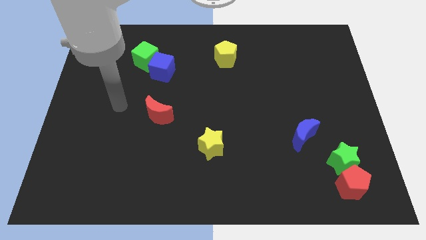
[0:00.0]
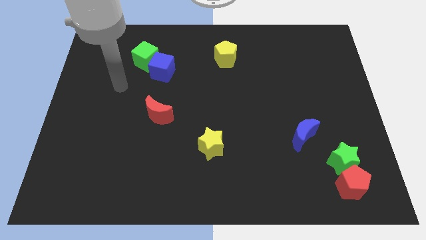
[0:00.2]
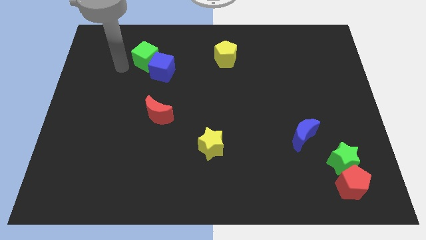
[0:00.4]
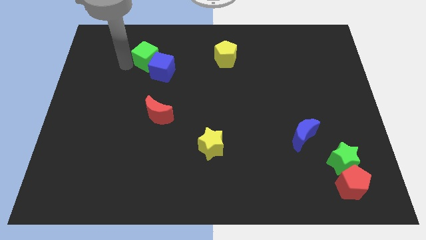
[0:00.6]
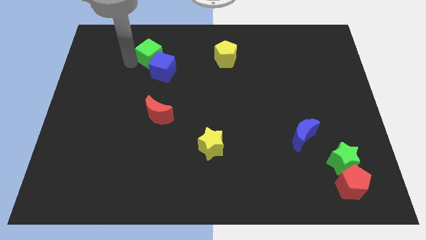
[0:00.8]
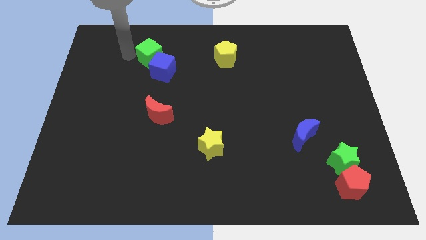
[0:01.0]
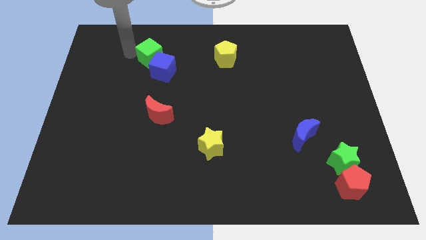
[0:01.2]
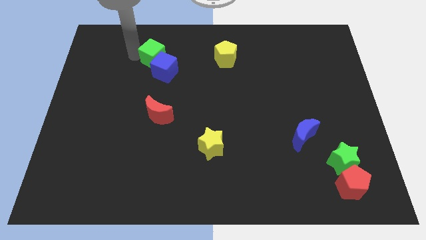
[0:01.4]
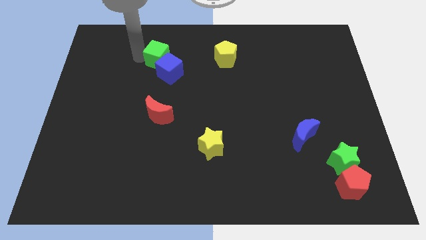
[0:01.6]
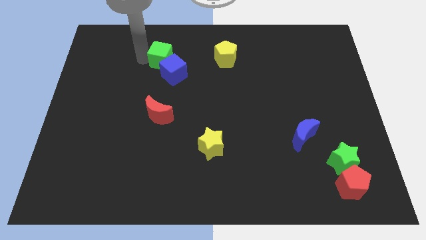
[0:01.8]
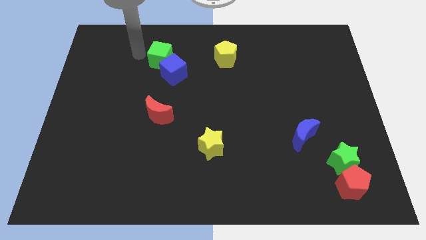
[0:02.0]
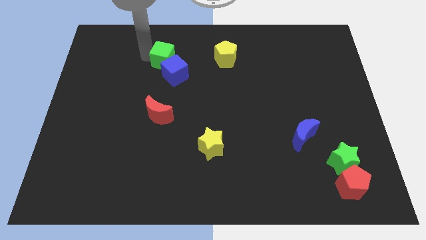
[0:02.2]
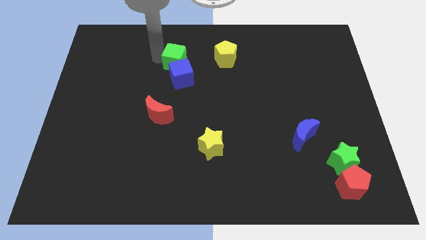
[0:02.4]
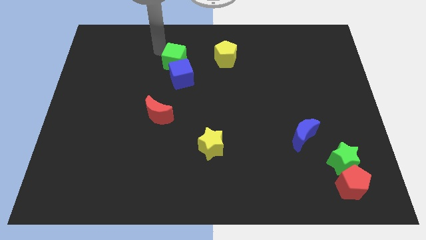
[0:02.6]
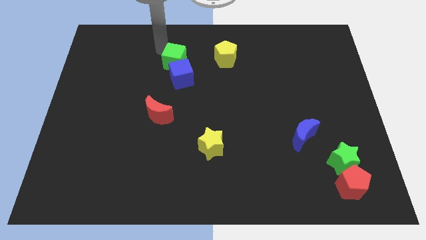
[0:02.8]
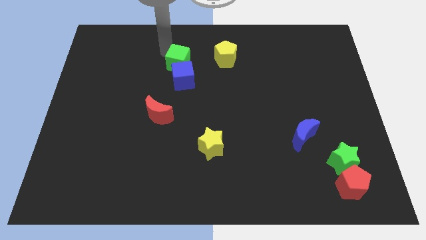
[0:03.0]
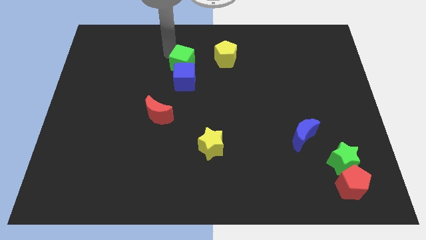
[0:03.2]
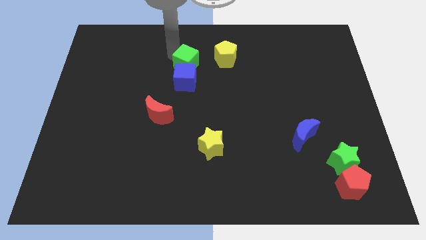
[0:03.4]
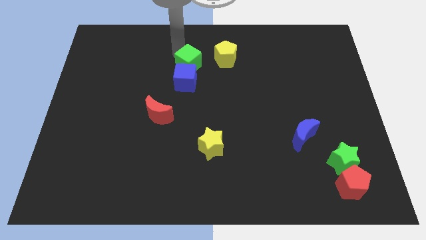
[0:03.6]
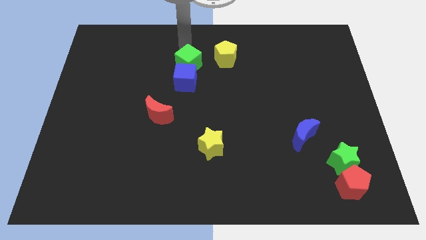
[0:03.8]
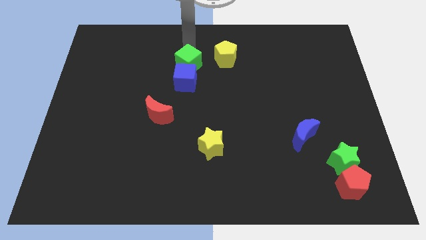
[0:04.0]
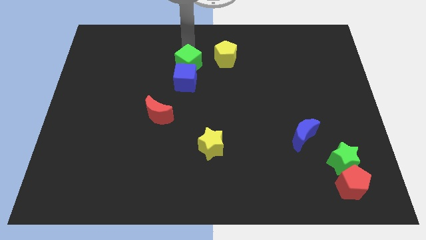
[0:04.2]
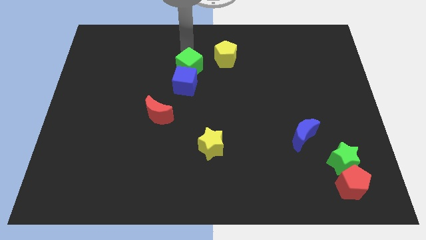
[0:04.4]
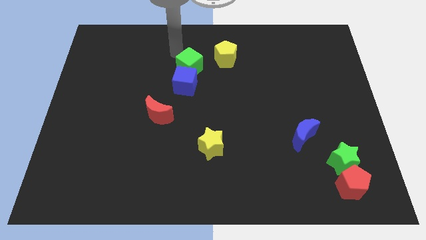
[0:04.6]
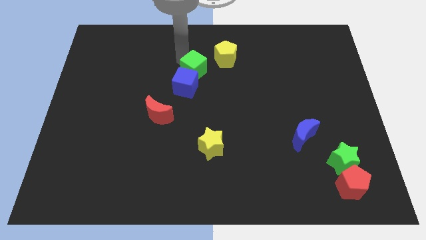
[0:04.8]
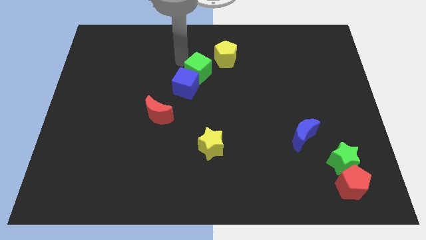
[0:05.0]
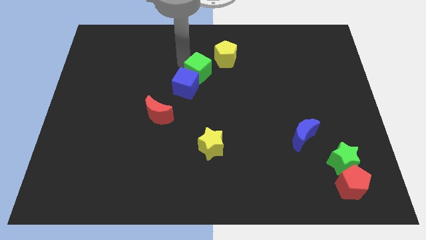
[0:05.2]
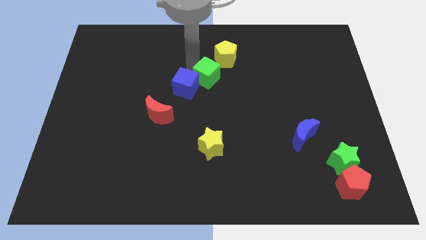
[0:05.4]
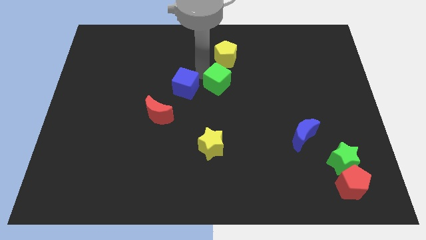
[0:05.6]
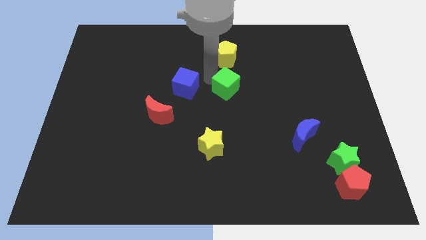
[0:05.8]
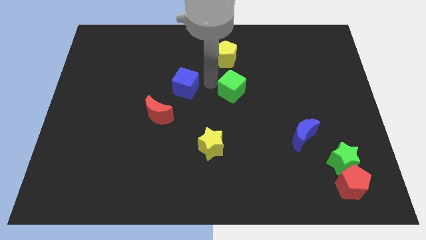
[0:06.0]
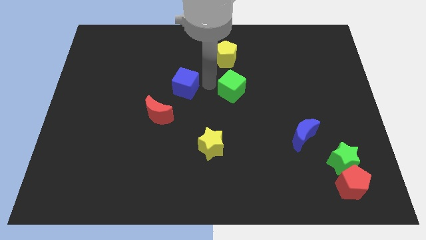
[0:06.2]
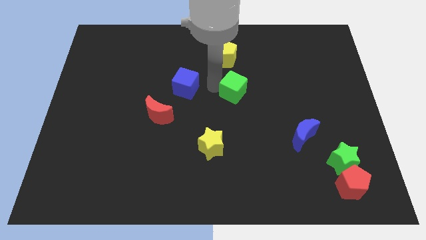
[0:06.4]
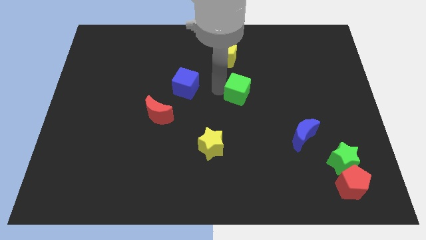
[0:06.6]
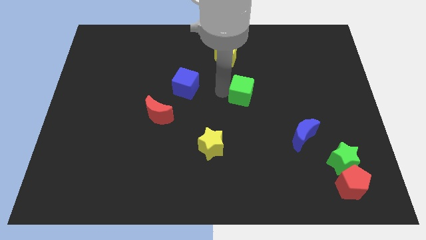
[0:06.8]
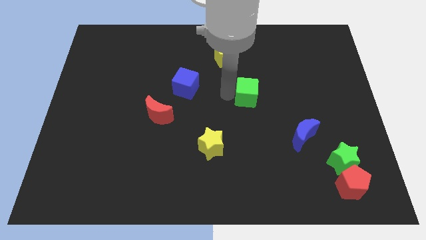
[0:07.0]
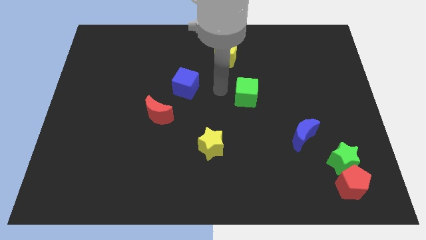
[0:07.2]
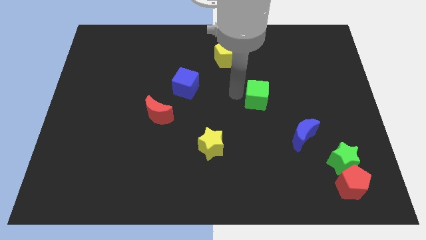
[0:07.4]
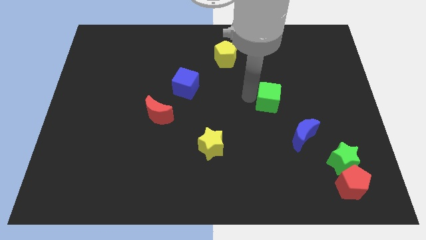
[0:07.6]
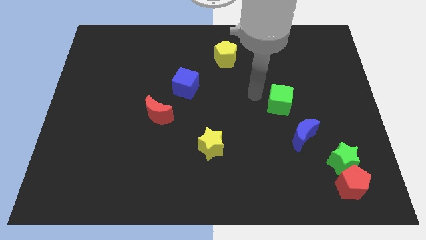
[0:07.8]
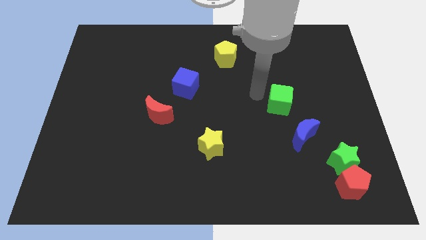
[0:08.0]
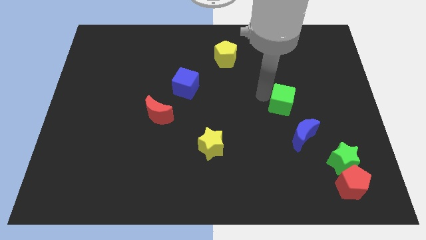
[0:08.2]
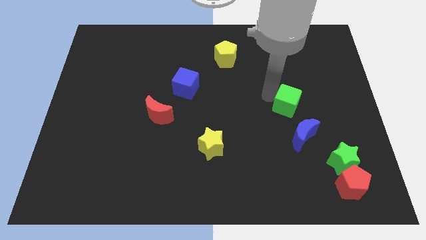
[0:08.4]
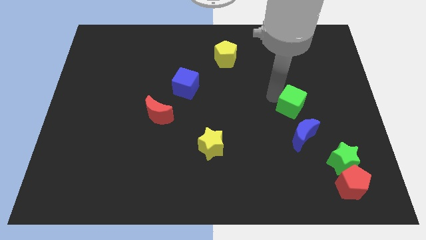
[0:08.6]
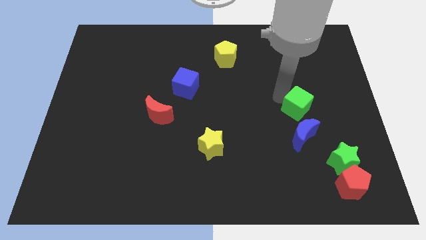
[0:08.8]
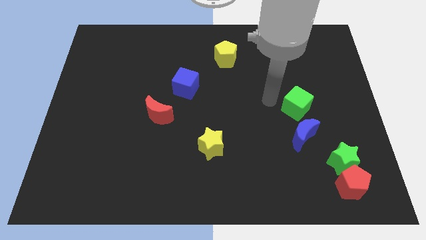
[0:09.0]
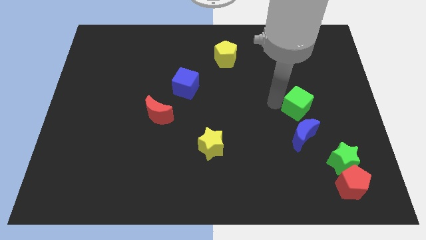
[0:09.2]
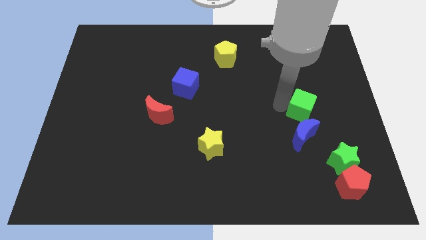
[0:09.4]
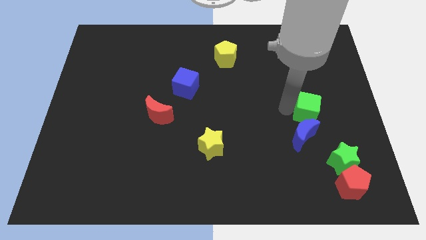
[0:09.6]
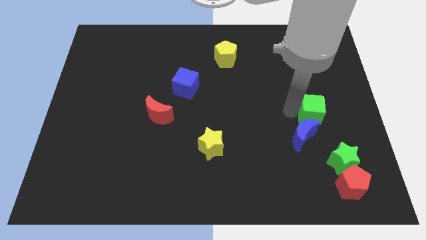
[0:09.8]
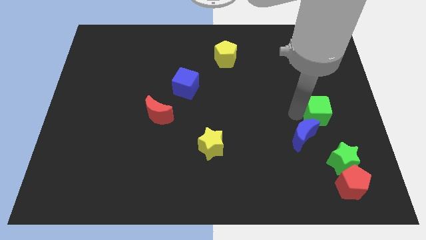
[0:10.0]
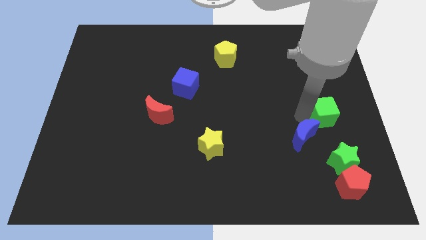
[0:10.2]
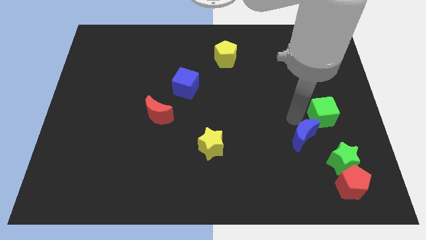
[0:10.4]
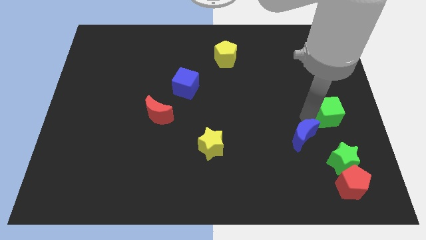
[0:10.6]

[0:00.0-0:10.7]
slide the green cube to the center right

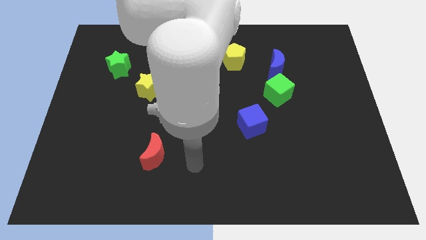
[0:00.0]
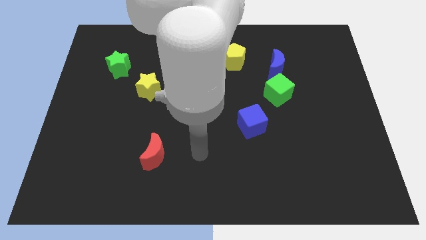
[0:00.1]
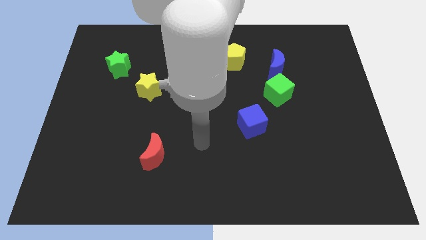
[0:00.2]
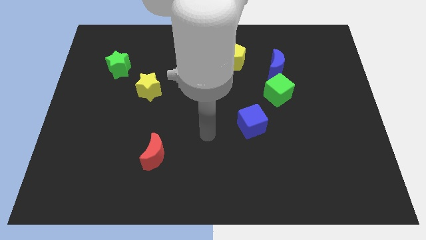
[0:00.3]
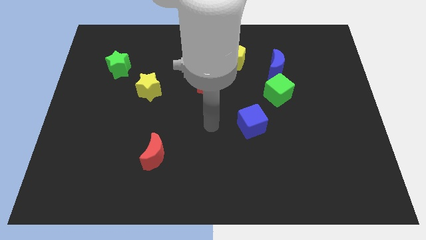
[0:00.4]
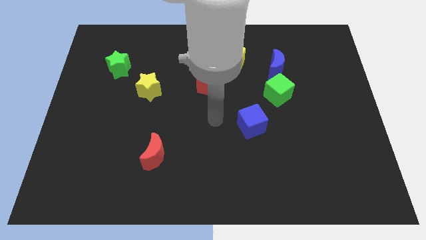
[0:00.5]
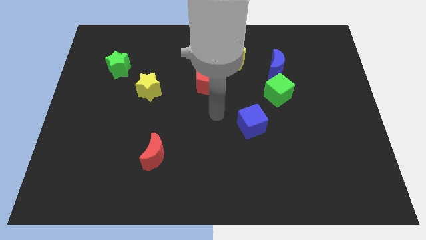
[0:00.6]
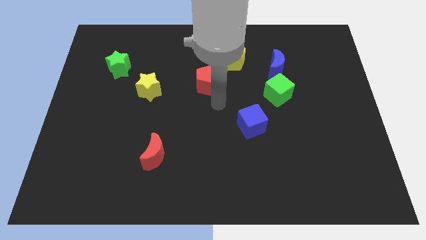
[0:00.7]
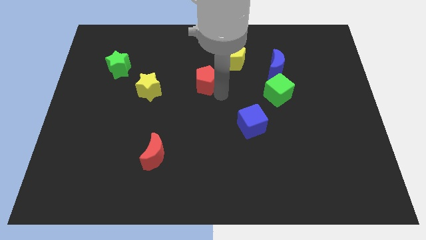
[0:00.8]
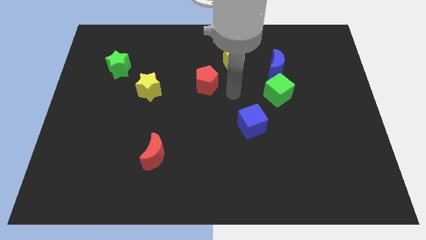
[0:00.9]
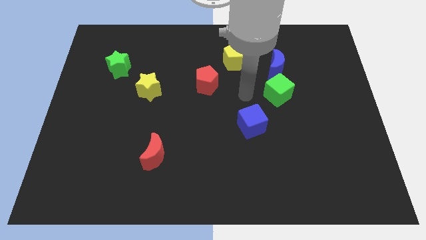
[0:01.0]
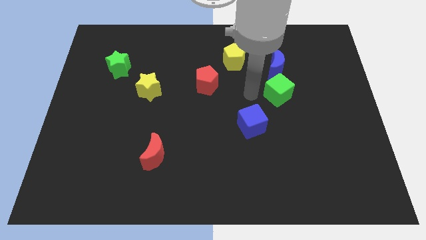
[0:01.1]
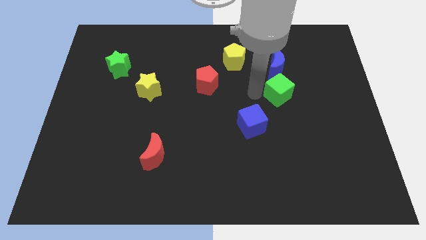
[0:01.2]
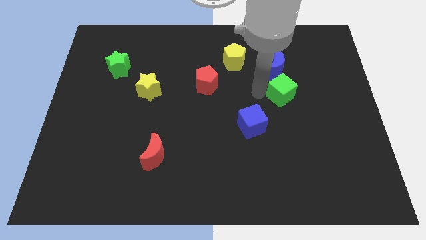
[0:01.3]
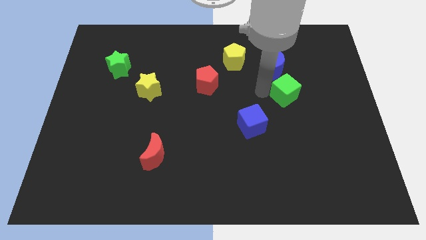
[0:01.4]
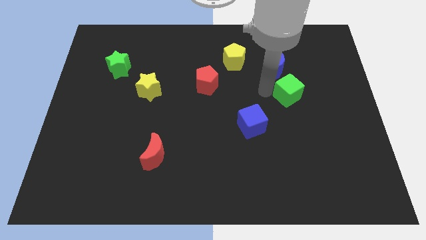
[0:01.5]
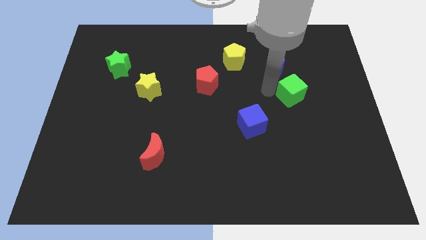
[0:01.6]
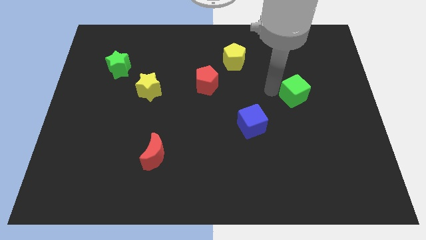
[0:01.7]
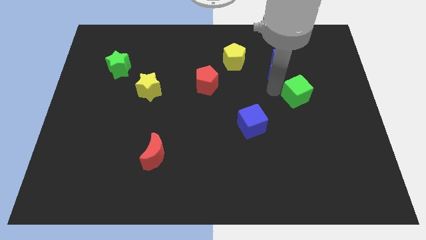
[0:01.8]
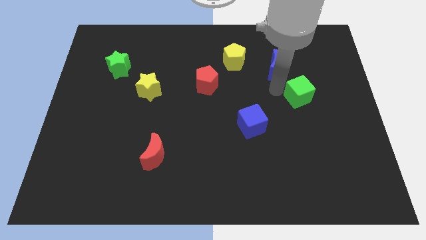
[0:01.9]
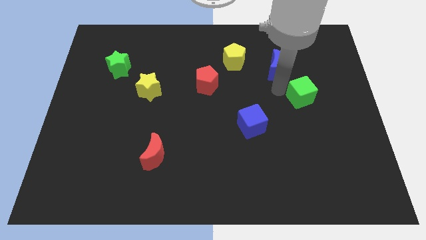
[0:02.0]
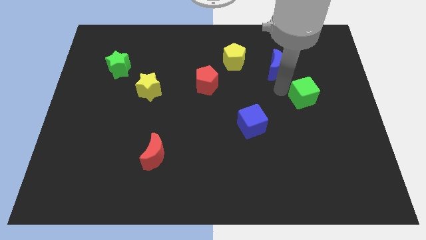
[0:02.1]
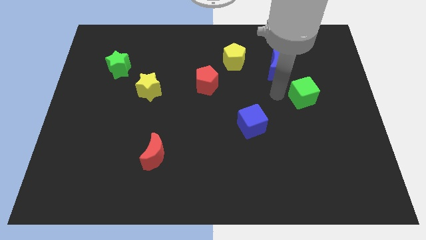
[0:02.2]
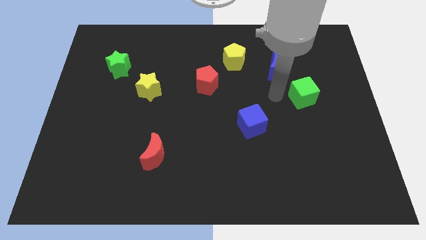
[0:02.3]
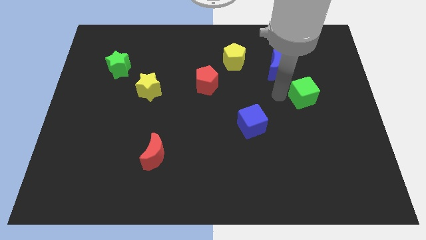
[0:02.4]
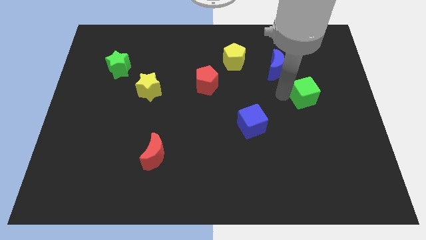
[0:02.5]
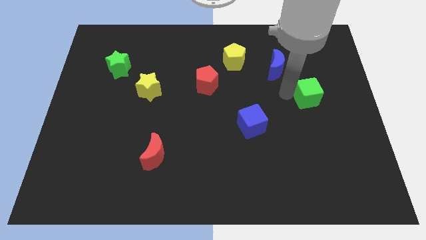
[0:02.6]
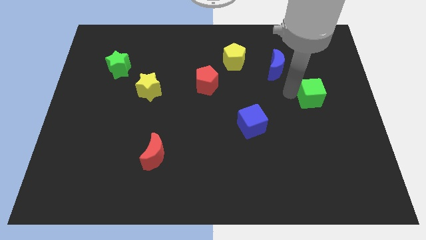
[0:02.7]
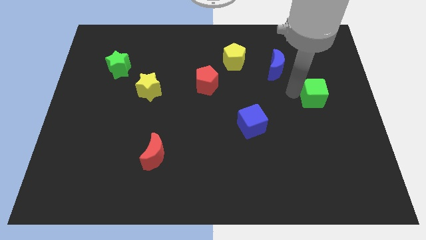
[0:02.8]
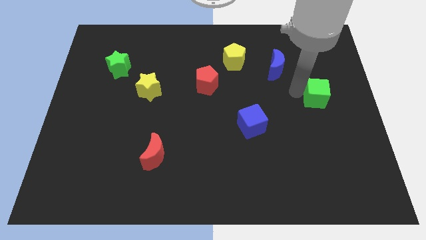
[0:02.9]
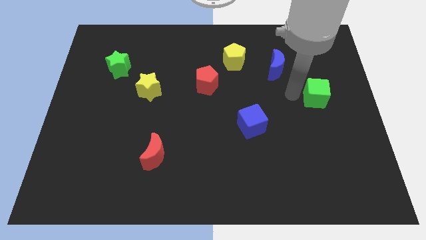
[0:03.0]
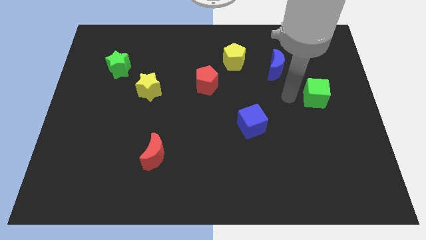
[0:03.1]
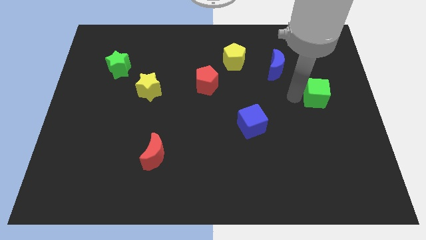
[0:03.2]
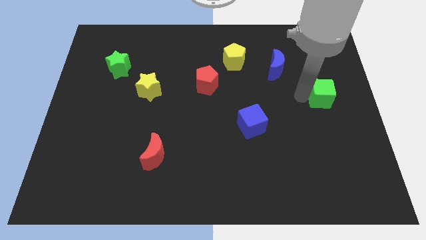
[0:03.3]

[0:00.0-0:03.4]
slide the green cube to the right side
